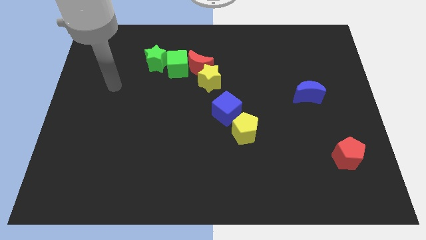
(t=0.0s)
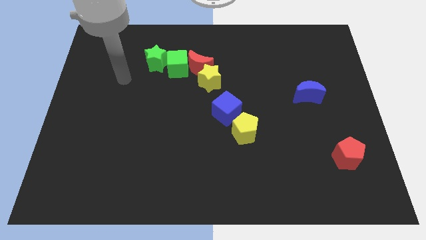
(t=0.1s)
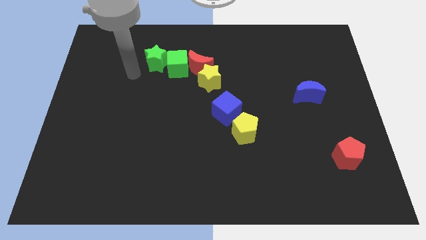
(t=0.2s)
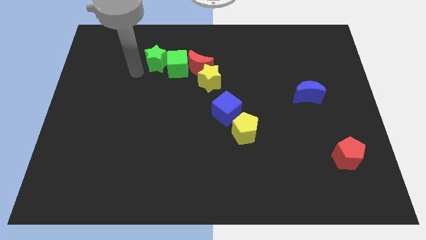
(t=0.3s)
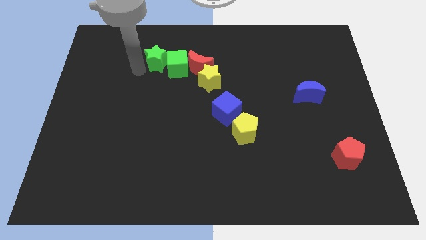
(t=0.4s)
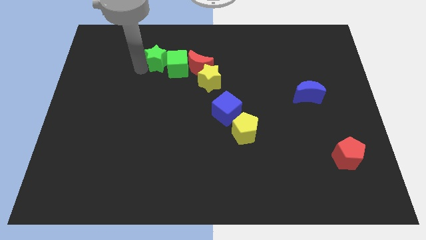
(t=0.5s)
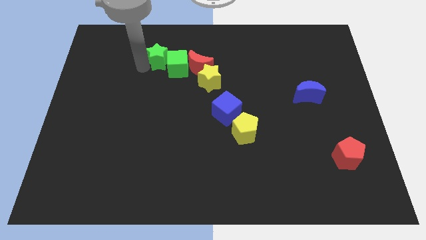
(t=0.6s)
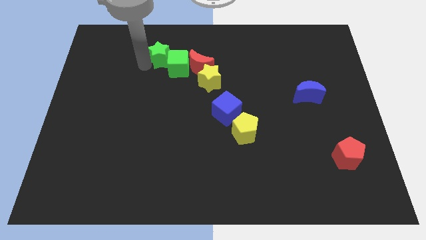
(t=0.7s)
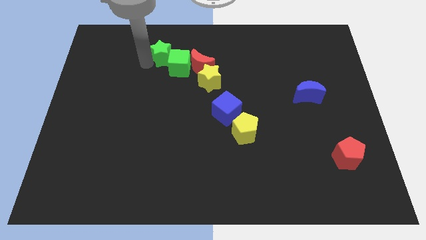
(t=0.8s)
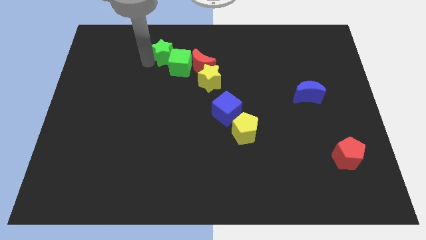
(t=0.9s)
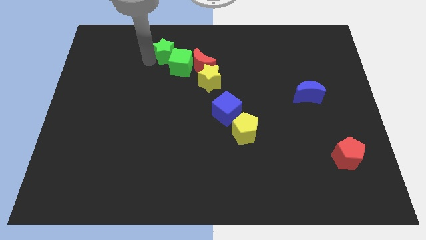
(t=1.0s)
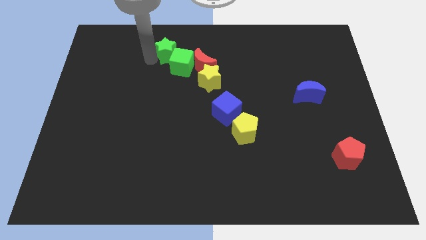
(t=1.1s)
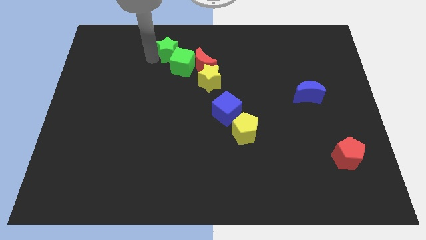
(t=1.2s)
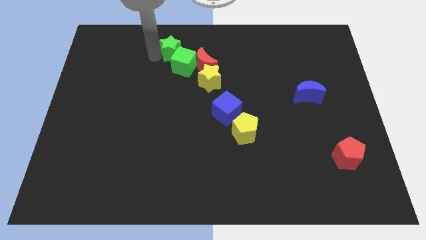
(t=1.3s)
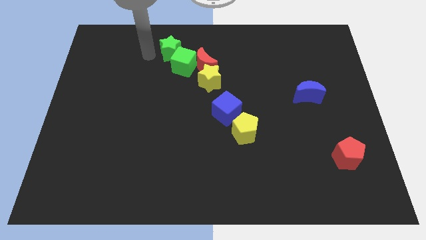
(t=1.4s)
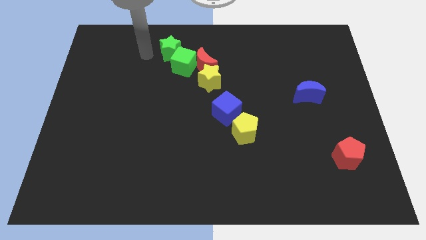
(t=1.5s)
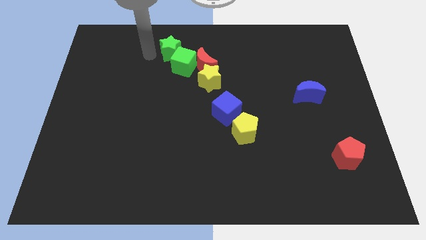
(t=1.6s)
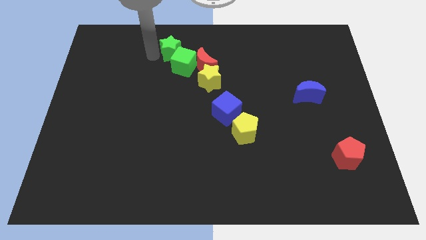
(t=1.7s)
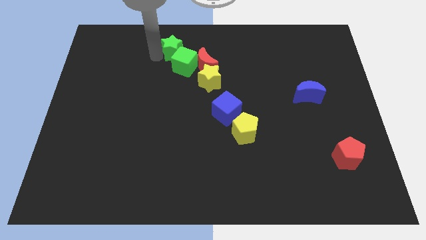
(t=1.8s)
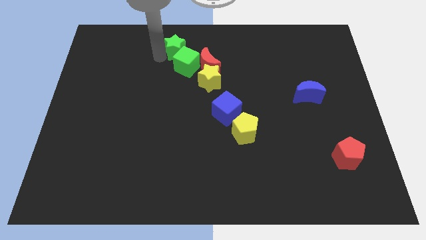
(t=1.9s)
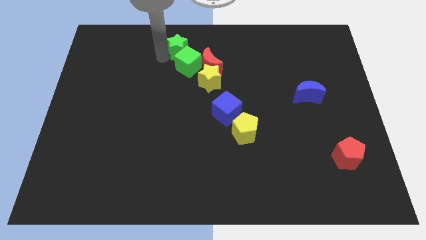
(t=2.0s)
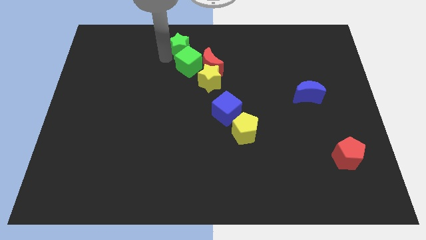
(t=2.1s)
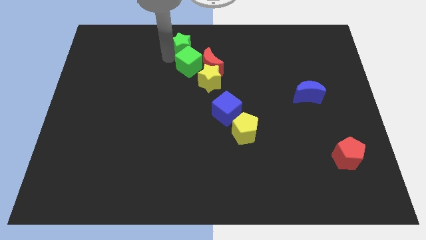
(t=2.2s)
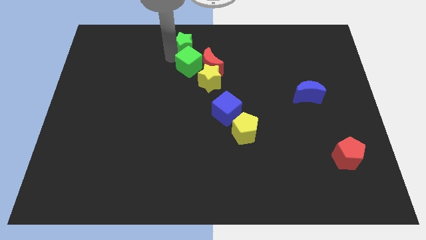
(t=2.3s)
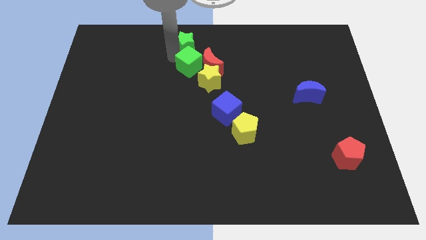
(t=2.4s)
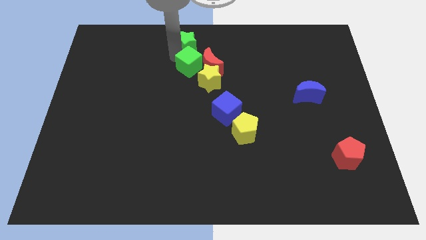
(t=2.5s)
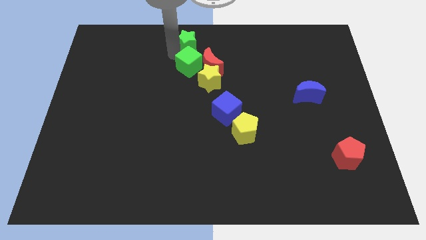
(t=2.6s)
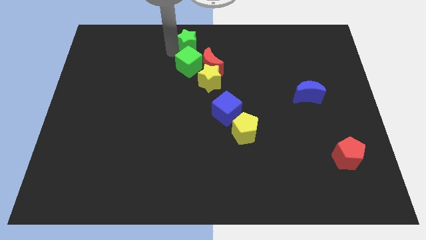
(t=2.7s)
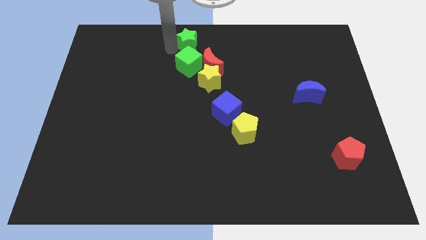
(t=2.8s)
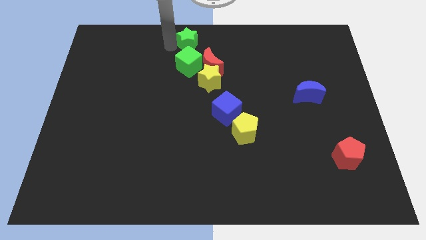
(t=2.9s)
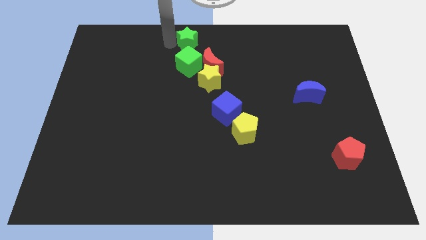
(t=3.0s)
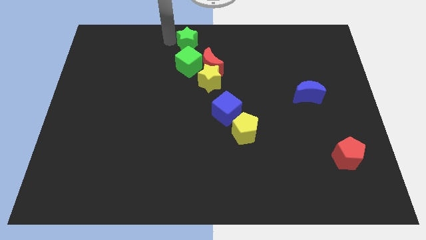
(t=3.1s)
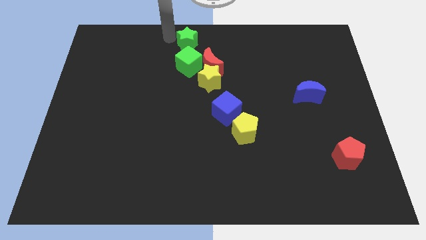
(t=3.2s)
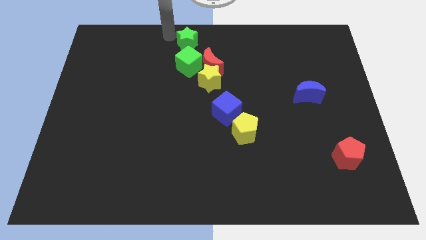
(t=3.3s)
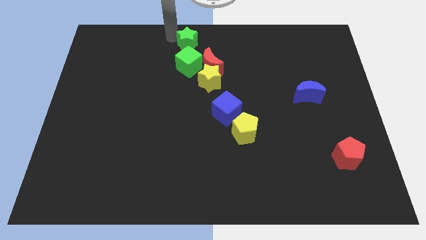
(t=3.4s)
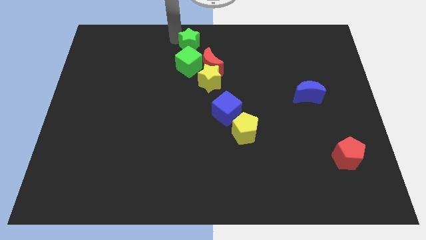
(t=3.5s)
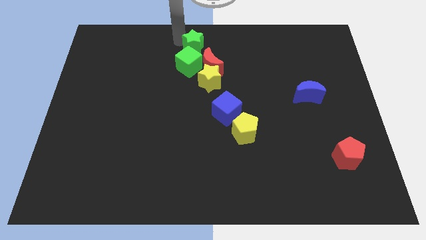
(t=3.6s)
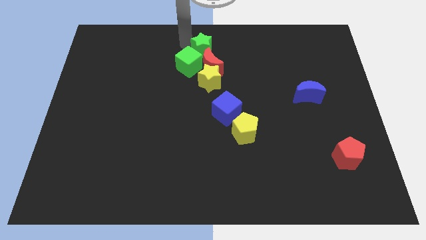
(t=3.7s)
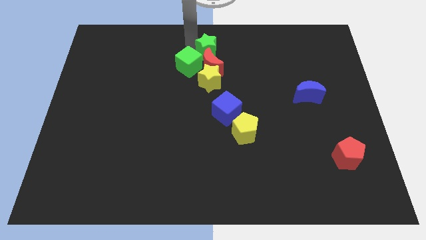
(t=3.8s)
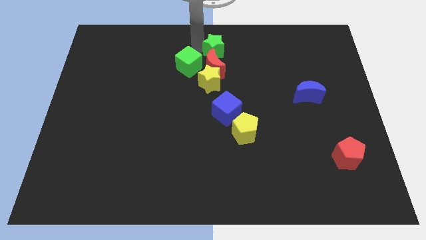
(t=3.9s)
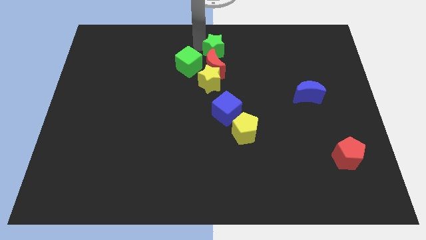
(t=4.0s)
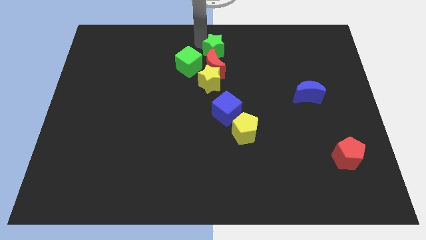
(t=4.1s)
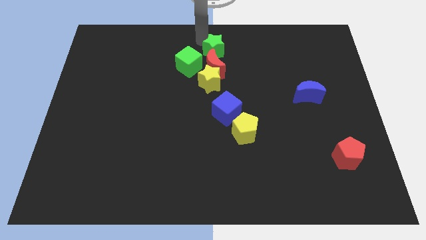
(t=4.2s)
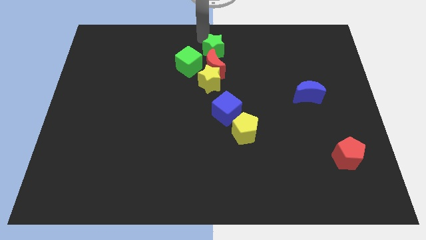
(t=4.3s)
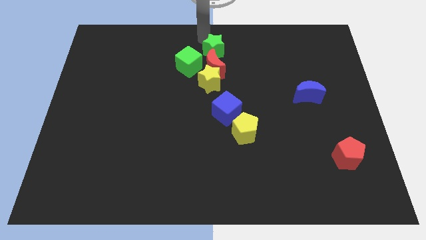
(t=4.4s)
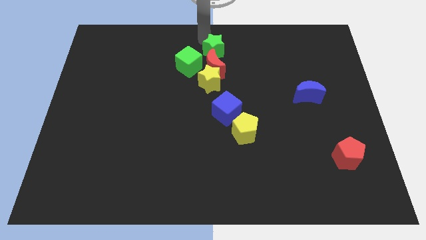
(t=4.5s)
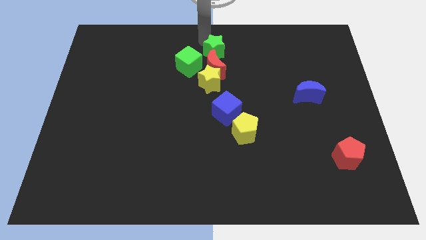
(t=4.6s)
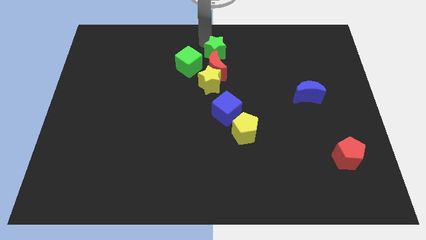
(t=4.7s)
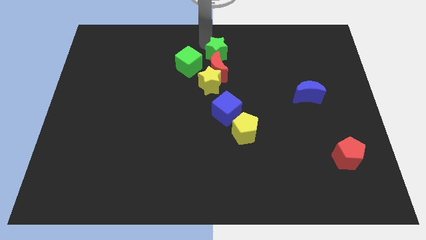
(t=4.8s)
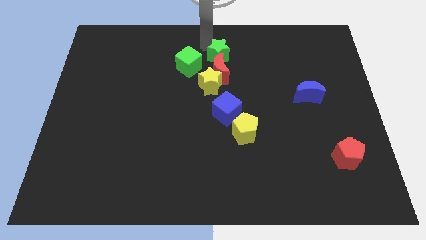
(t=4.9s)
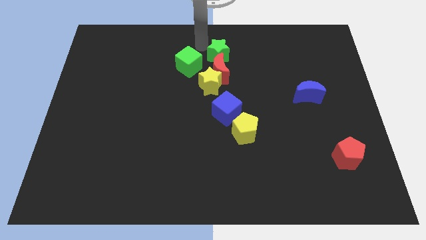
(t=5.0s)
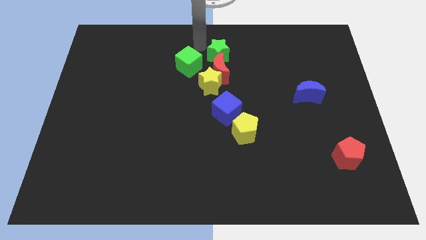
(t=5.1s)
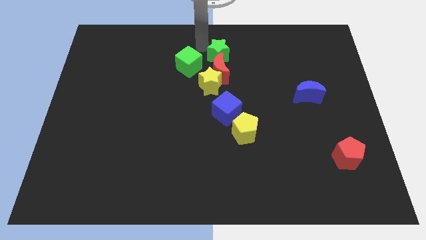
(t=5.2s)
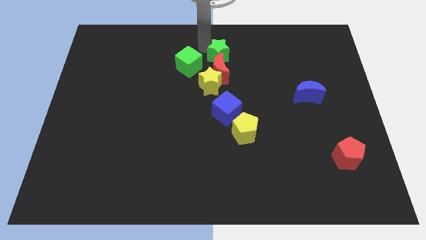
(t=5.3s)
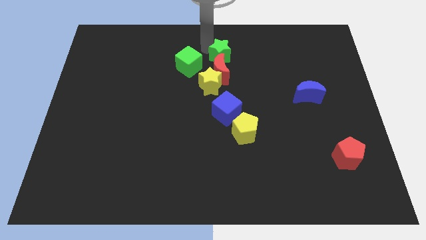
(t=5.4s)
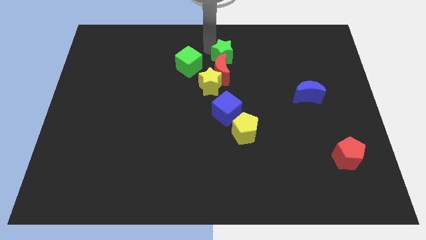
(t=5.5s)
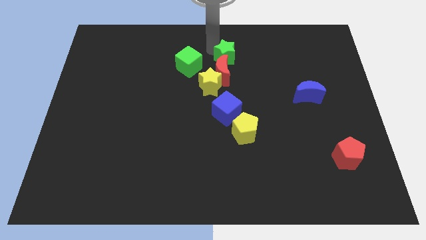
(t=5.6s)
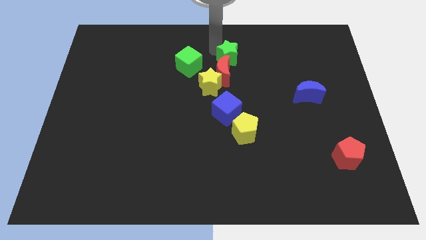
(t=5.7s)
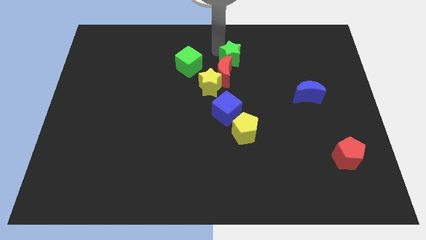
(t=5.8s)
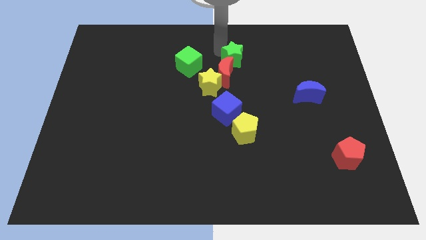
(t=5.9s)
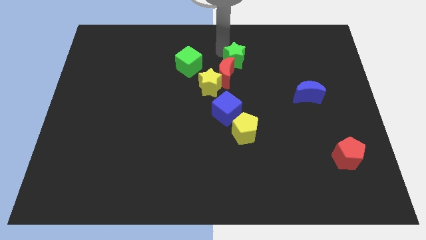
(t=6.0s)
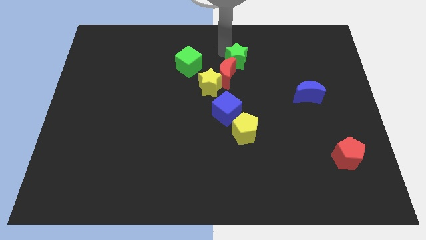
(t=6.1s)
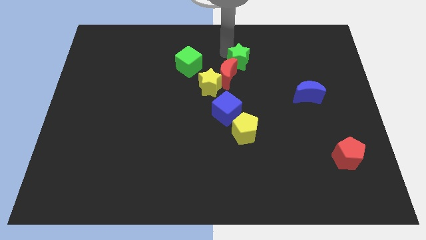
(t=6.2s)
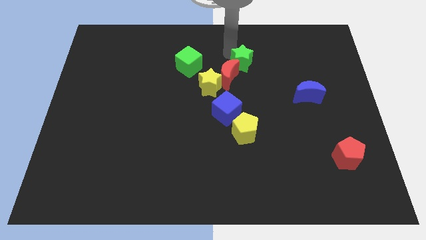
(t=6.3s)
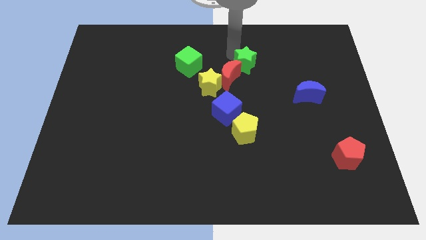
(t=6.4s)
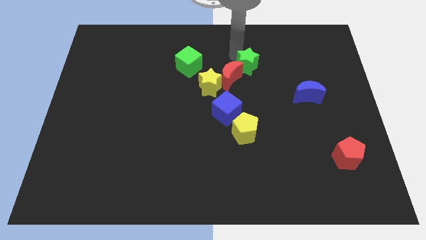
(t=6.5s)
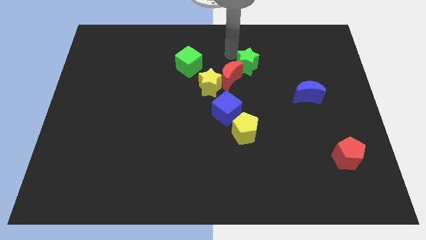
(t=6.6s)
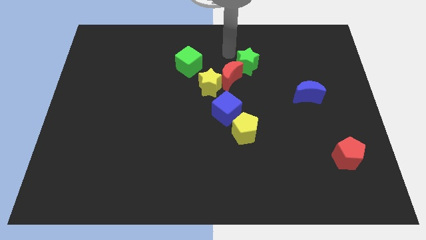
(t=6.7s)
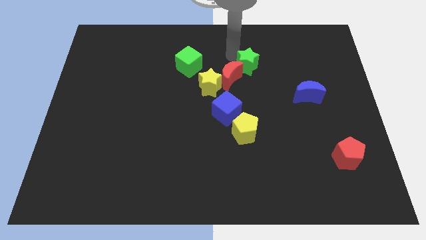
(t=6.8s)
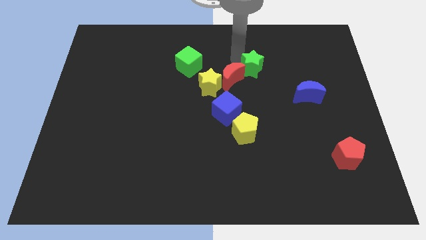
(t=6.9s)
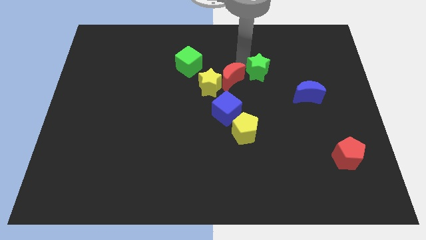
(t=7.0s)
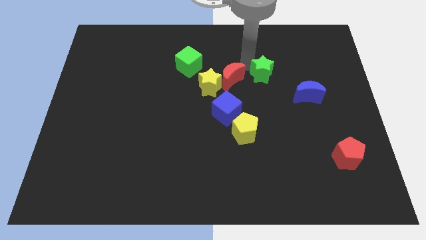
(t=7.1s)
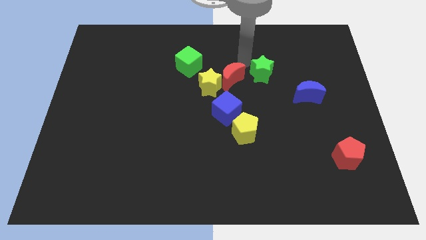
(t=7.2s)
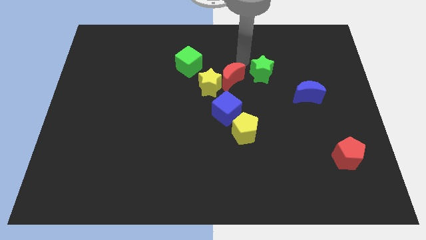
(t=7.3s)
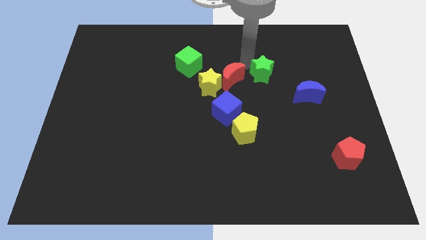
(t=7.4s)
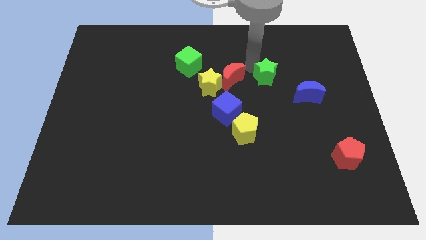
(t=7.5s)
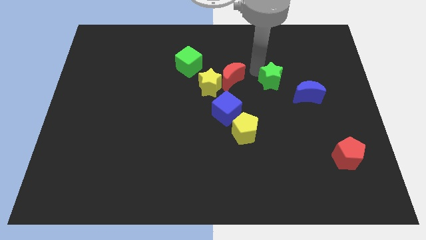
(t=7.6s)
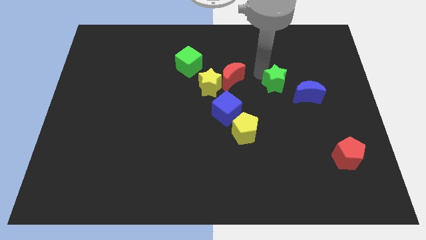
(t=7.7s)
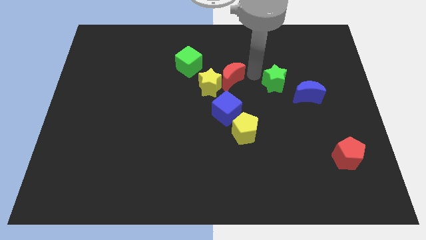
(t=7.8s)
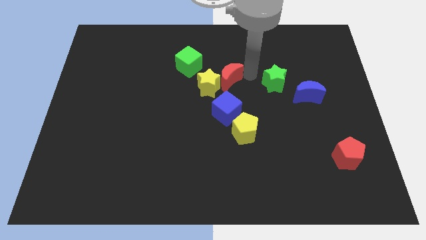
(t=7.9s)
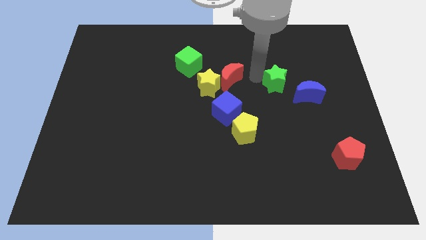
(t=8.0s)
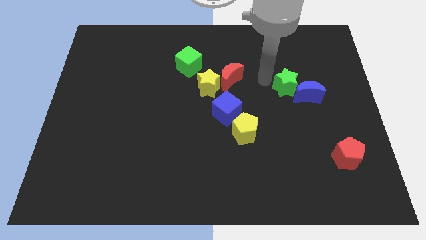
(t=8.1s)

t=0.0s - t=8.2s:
push the green star next to the blue moon
